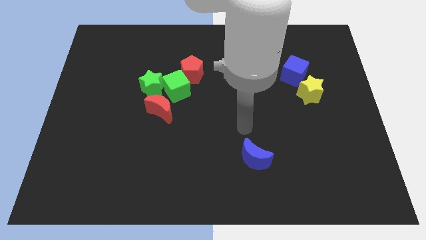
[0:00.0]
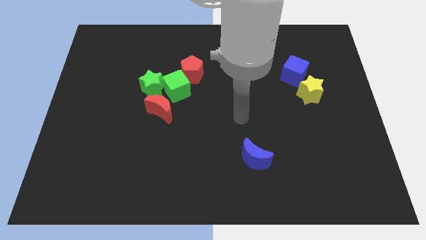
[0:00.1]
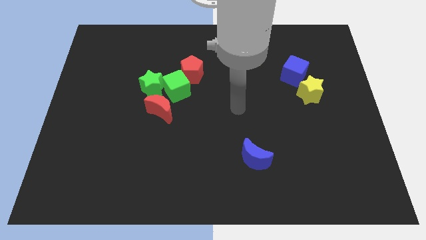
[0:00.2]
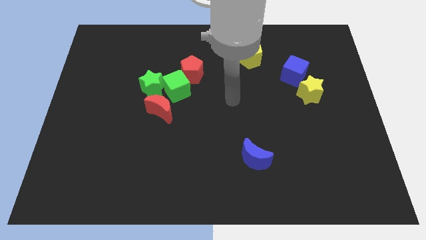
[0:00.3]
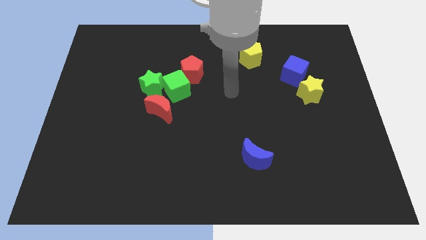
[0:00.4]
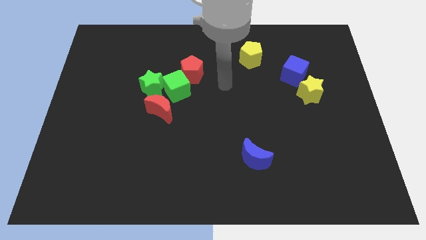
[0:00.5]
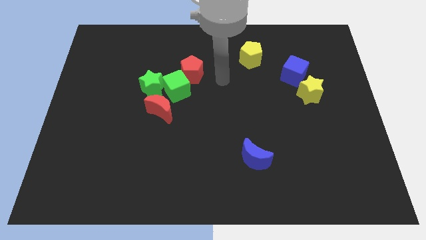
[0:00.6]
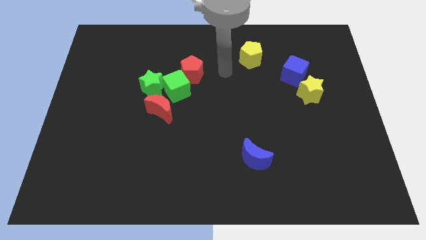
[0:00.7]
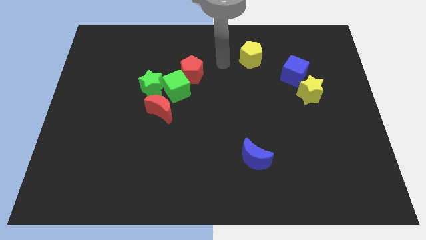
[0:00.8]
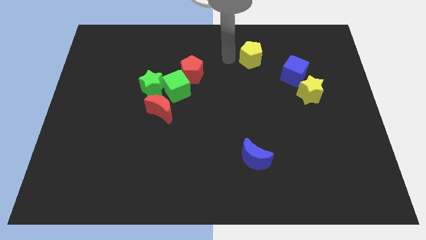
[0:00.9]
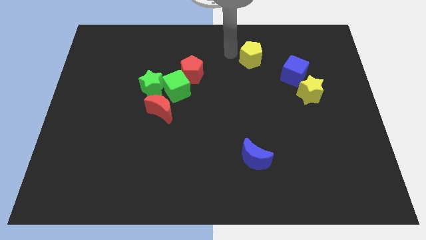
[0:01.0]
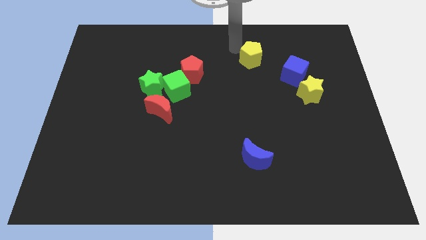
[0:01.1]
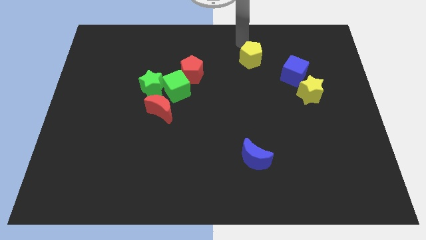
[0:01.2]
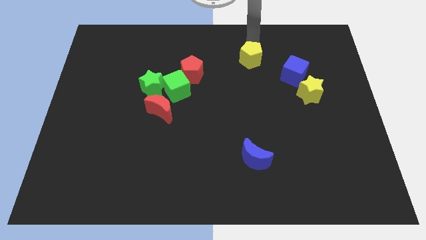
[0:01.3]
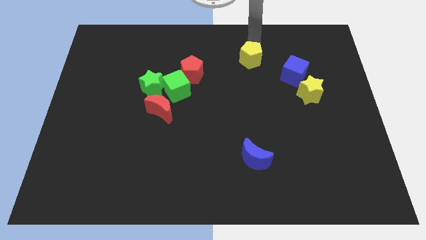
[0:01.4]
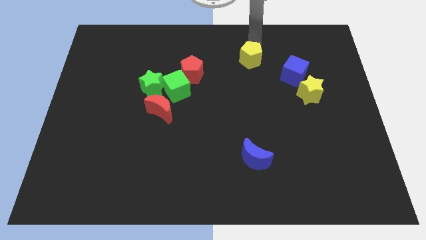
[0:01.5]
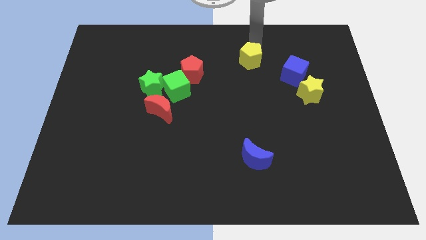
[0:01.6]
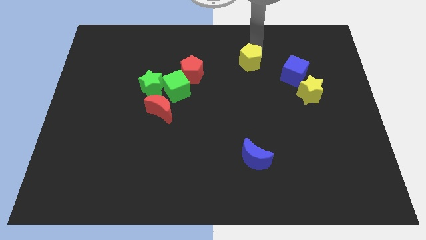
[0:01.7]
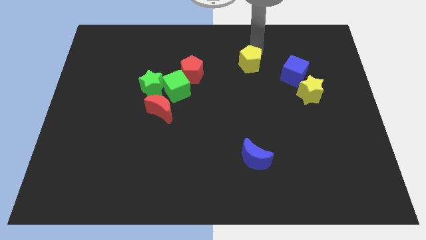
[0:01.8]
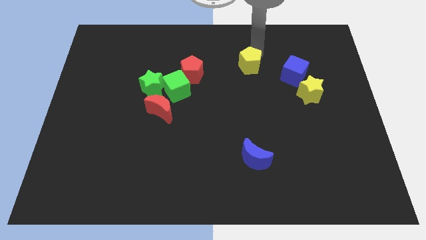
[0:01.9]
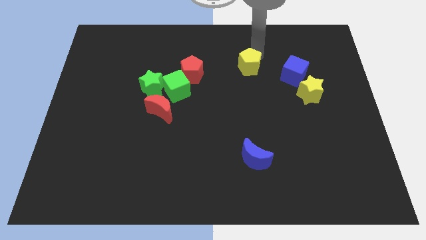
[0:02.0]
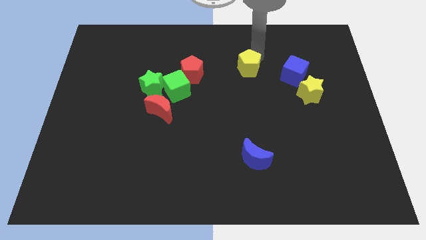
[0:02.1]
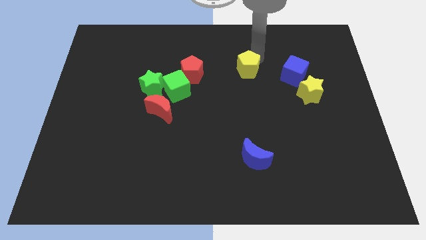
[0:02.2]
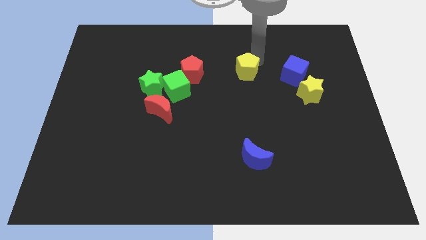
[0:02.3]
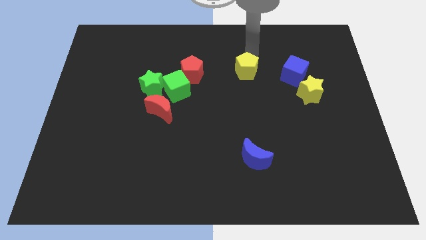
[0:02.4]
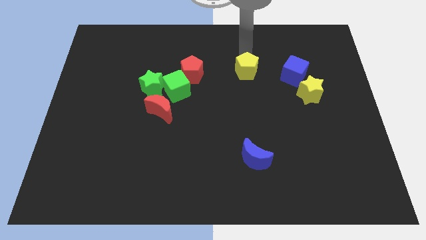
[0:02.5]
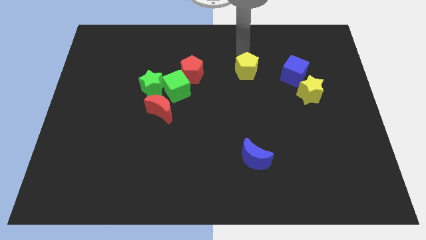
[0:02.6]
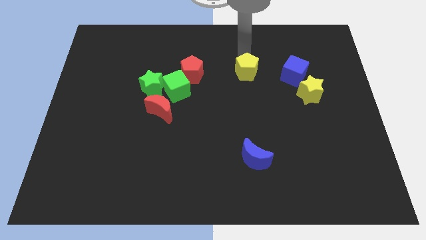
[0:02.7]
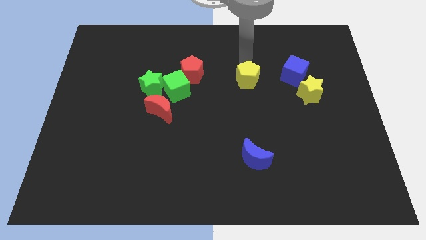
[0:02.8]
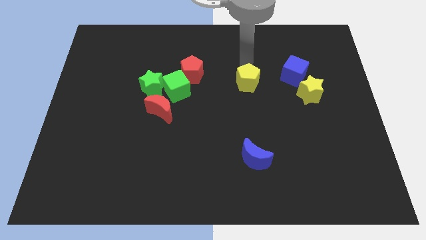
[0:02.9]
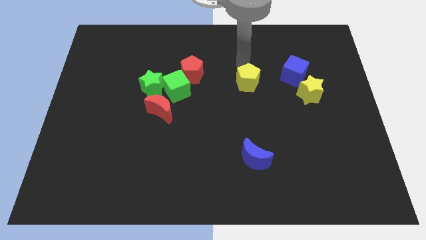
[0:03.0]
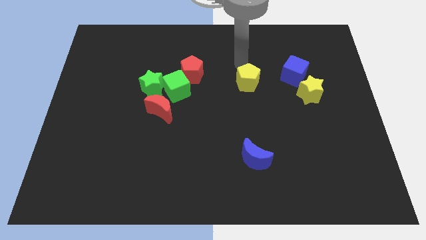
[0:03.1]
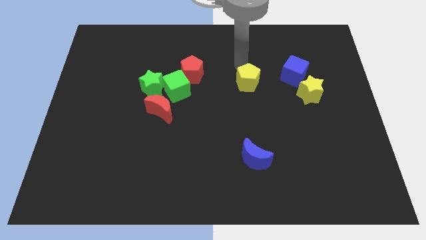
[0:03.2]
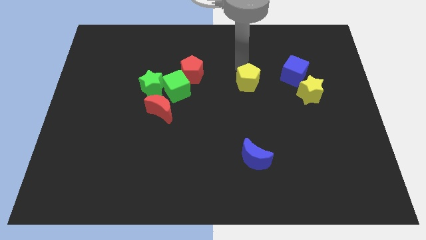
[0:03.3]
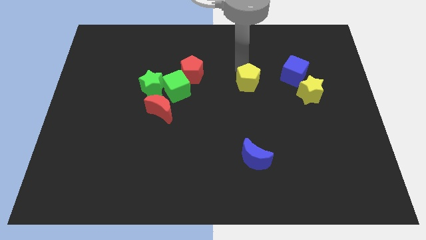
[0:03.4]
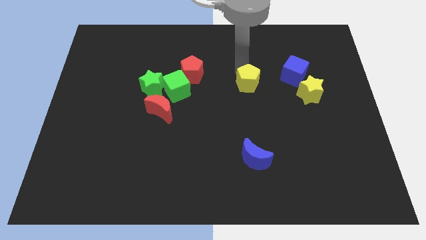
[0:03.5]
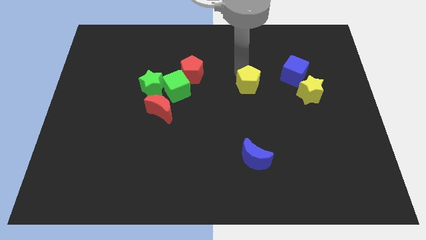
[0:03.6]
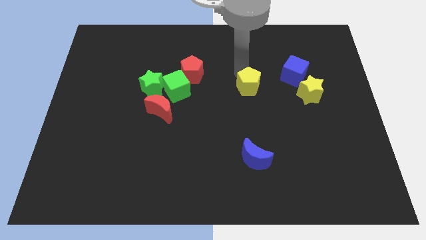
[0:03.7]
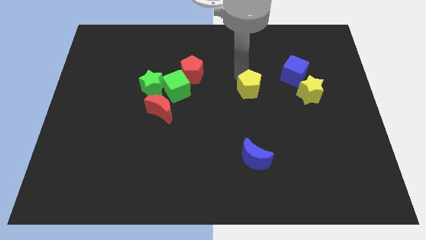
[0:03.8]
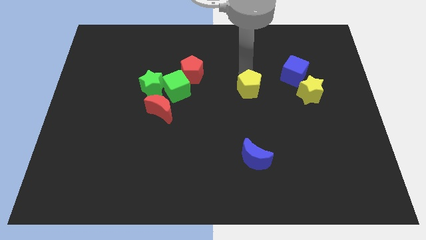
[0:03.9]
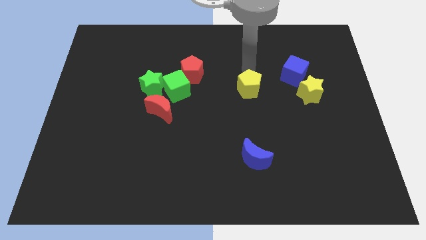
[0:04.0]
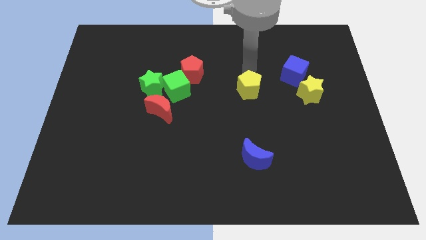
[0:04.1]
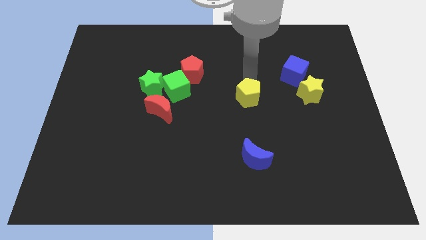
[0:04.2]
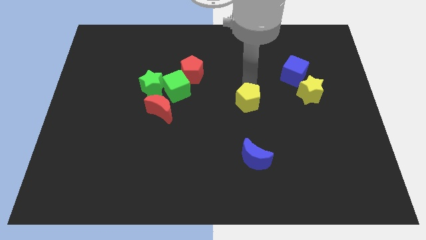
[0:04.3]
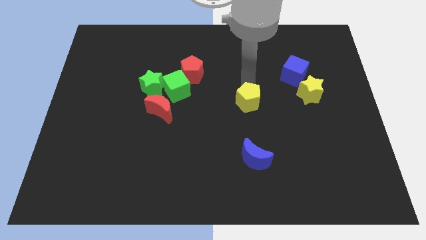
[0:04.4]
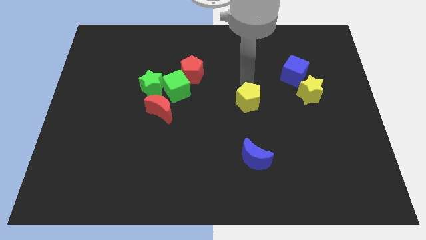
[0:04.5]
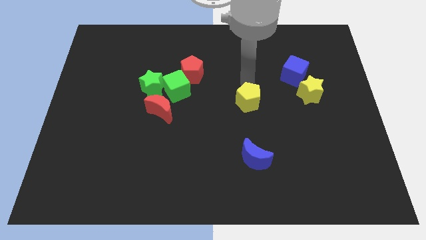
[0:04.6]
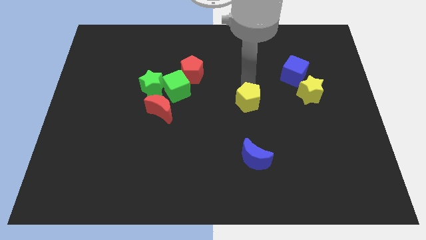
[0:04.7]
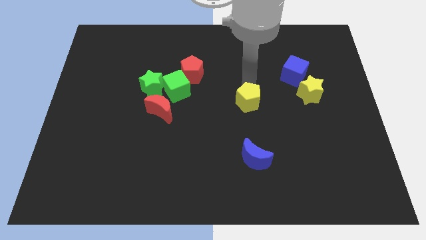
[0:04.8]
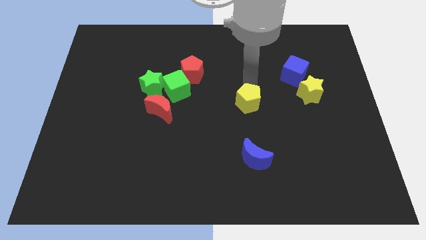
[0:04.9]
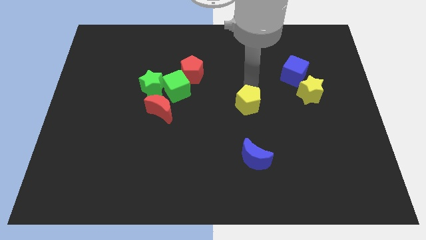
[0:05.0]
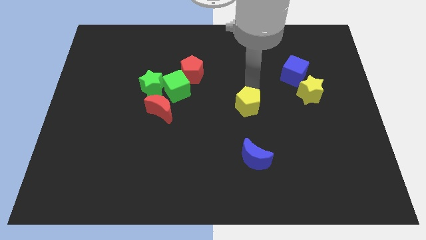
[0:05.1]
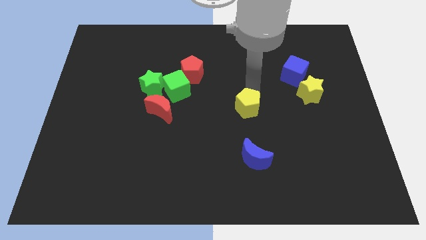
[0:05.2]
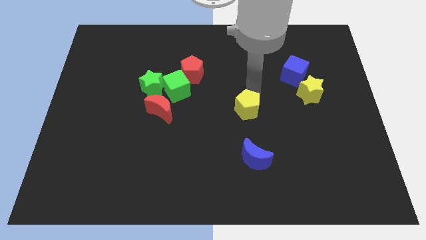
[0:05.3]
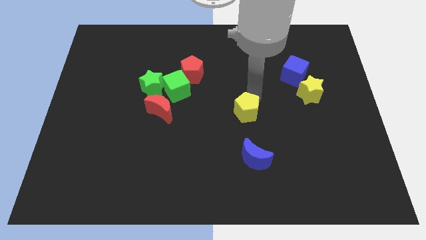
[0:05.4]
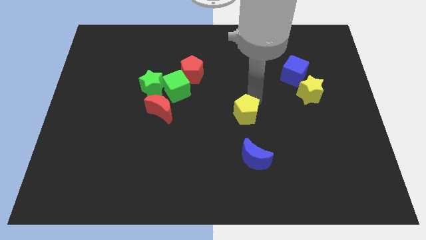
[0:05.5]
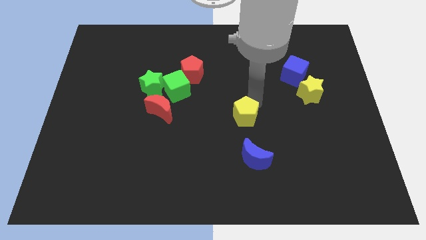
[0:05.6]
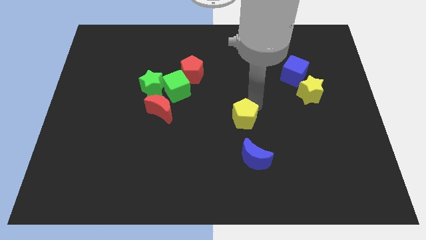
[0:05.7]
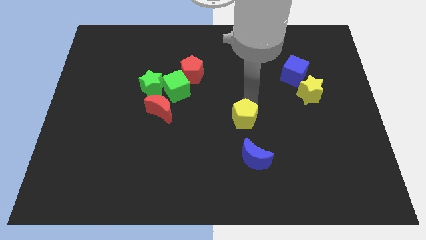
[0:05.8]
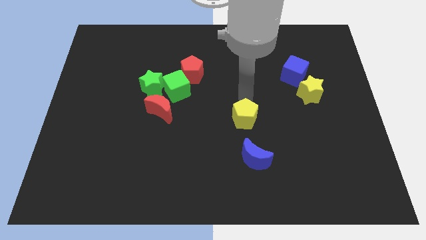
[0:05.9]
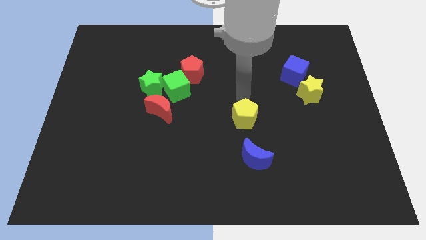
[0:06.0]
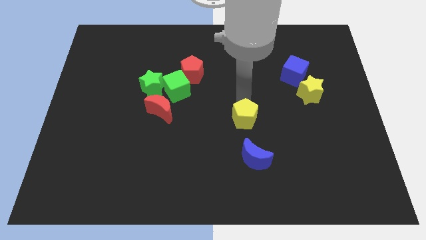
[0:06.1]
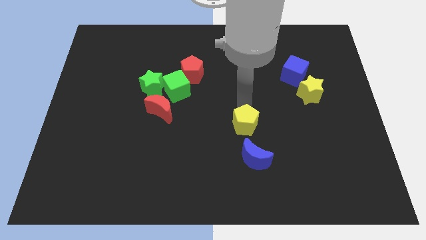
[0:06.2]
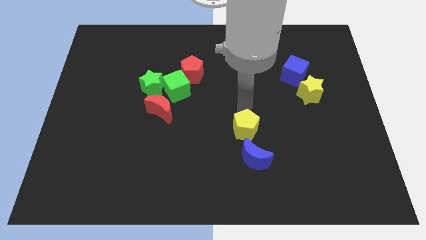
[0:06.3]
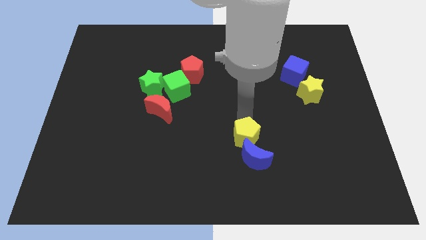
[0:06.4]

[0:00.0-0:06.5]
push the yellow pentagon towards the blue moon
